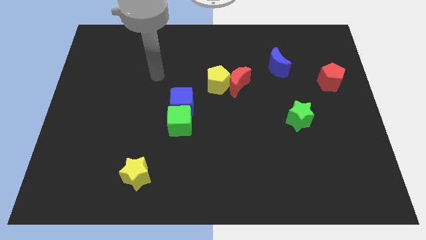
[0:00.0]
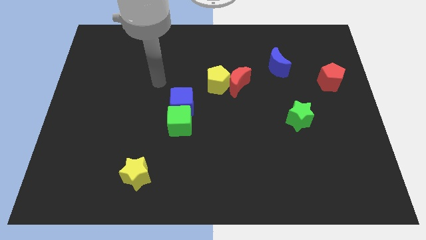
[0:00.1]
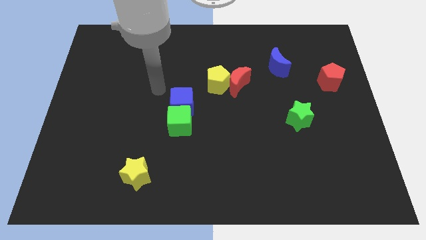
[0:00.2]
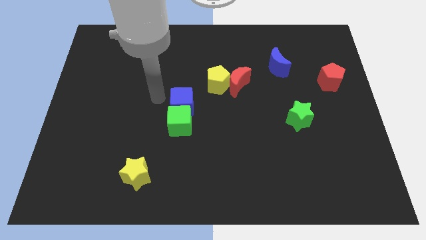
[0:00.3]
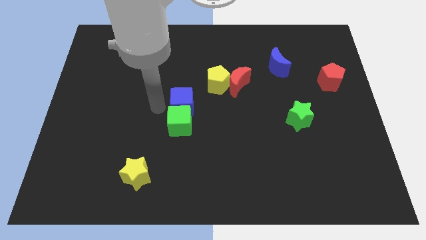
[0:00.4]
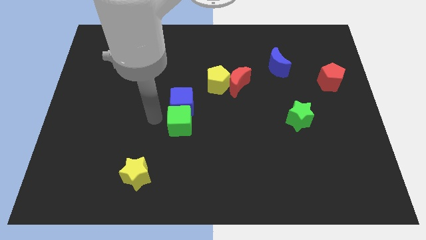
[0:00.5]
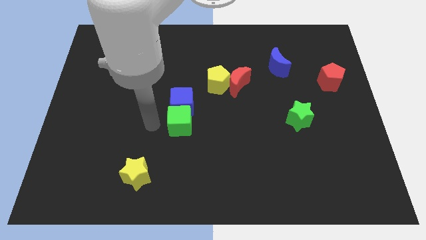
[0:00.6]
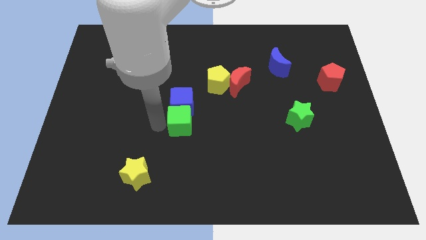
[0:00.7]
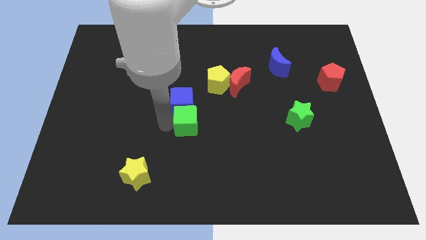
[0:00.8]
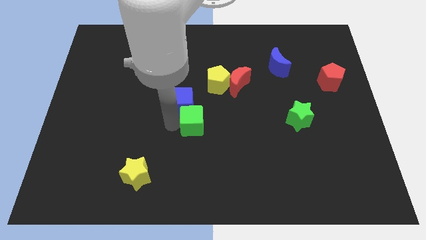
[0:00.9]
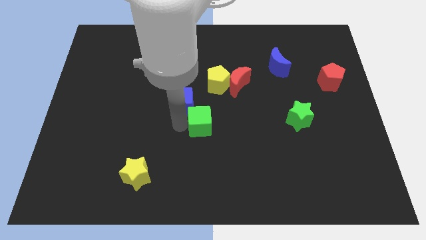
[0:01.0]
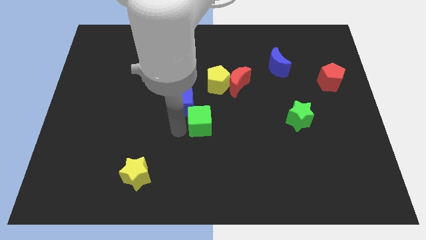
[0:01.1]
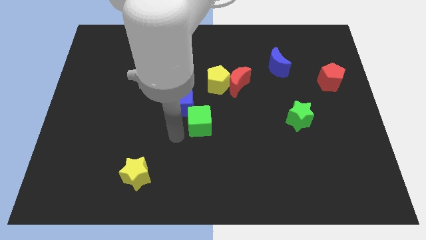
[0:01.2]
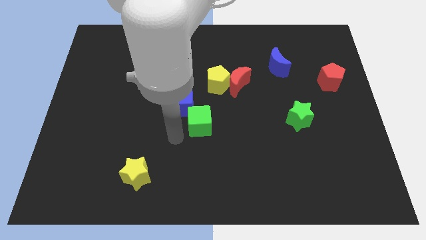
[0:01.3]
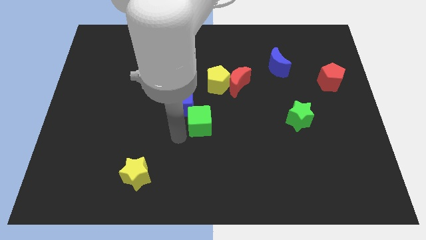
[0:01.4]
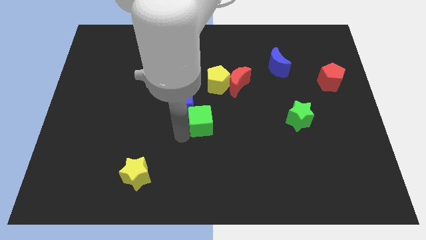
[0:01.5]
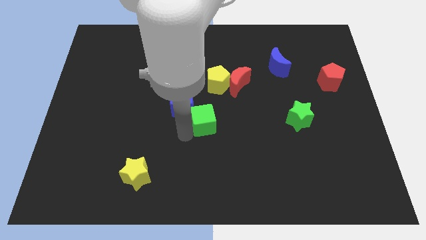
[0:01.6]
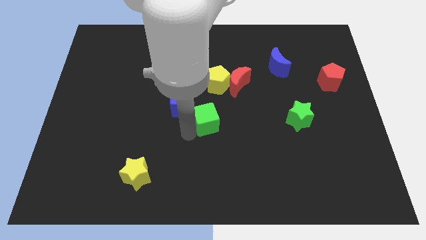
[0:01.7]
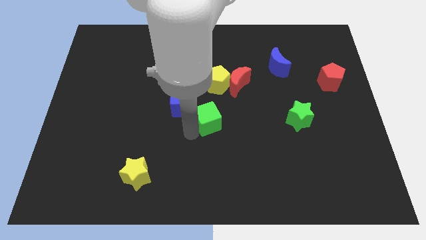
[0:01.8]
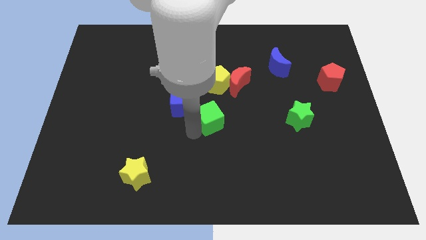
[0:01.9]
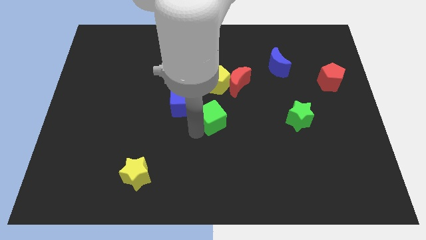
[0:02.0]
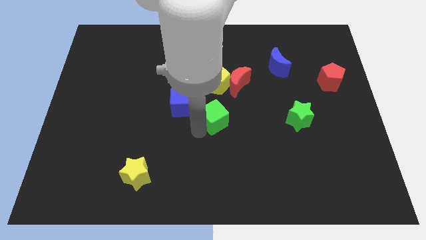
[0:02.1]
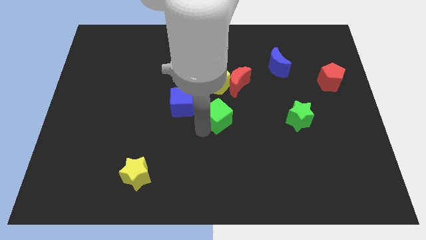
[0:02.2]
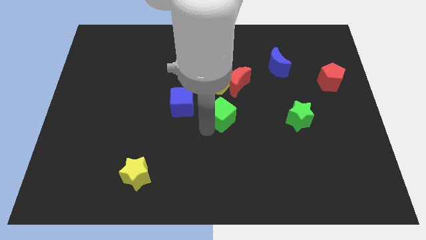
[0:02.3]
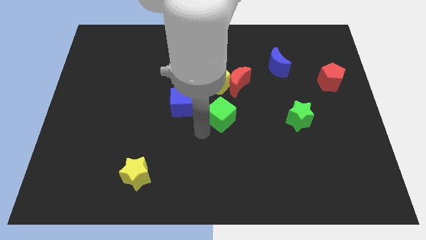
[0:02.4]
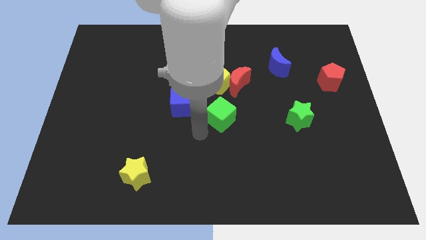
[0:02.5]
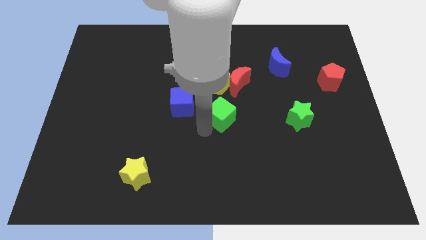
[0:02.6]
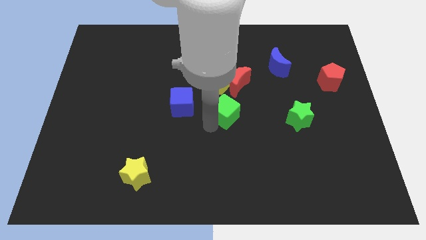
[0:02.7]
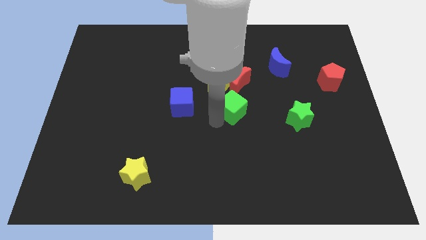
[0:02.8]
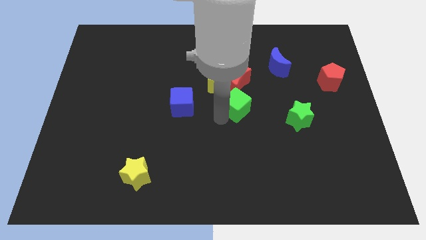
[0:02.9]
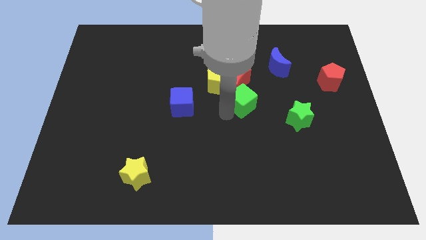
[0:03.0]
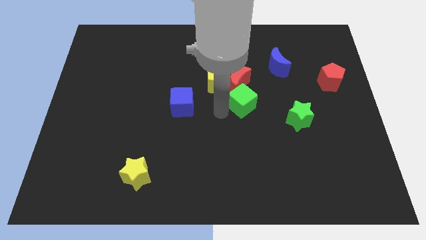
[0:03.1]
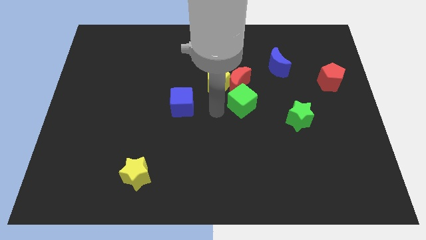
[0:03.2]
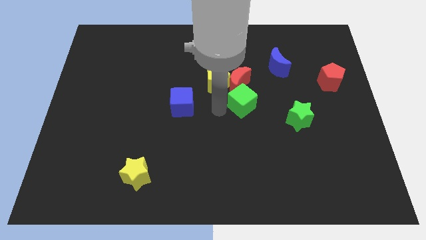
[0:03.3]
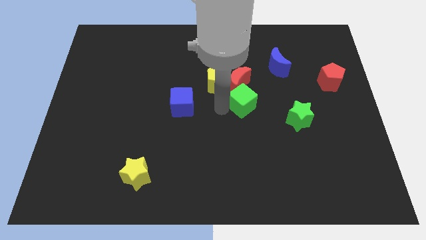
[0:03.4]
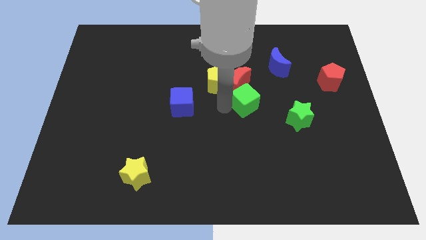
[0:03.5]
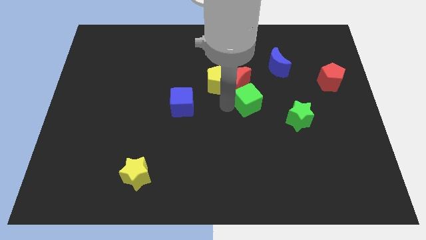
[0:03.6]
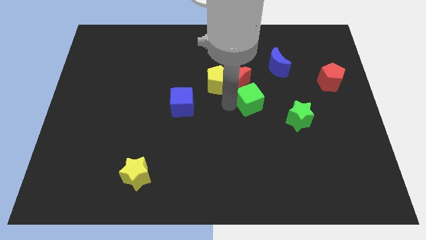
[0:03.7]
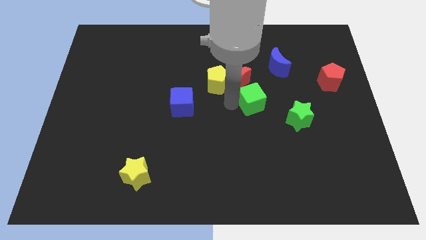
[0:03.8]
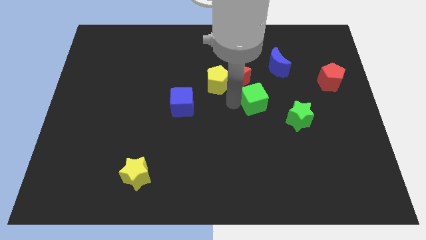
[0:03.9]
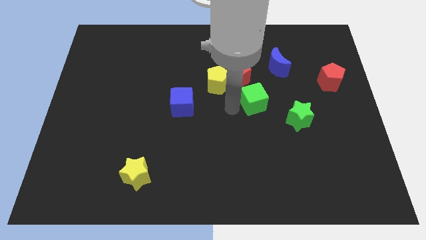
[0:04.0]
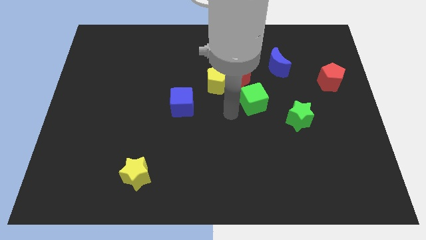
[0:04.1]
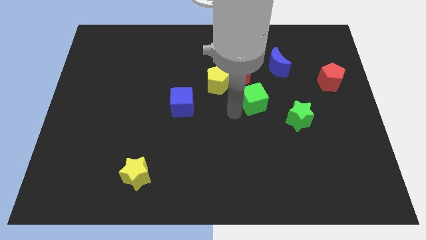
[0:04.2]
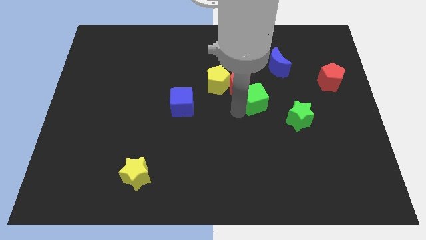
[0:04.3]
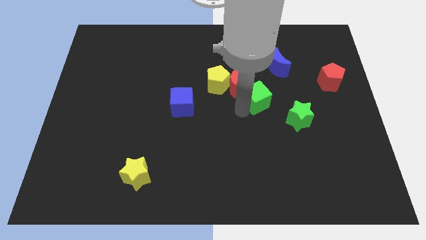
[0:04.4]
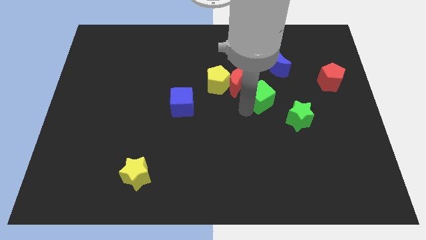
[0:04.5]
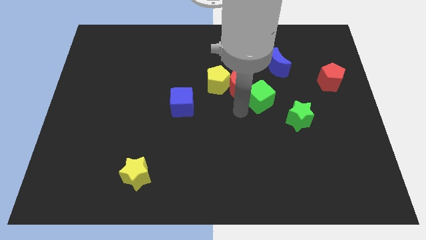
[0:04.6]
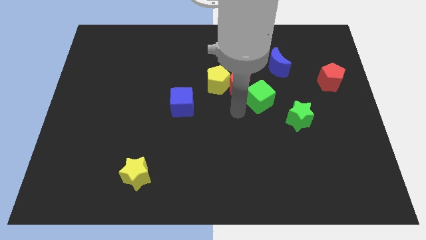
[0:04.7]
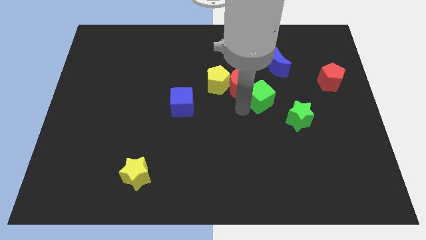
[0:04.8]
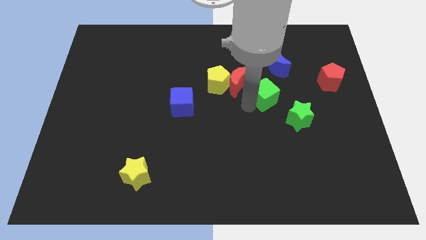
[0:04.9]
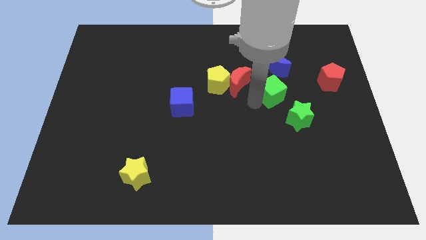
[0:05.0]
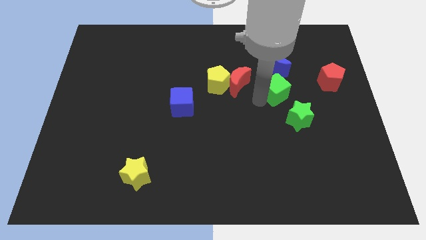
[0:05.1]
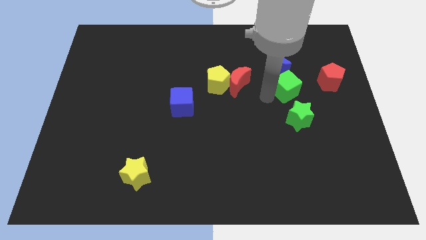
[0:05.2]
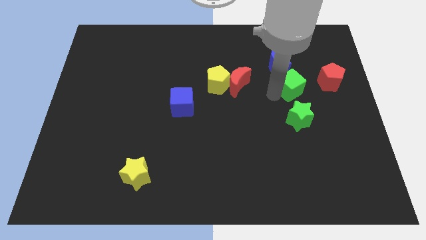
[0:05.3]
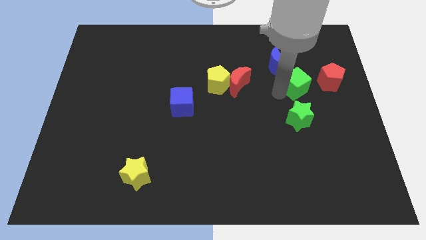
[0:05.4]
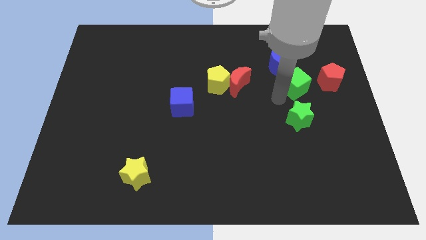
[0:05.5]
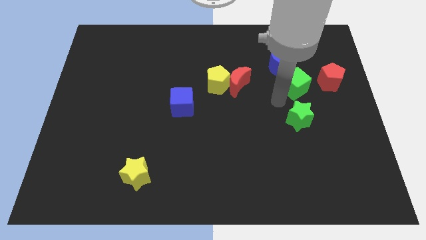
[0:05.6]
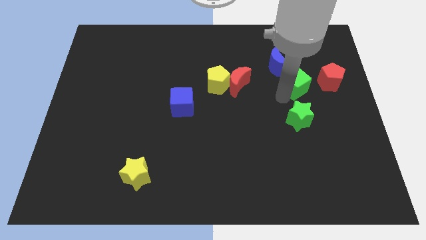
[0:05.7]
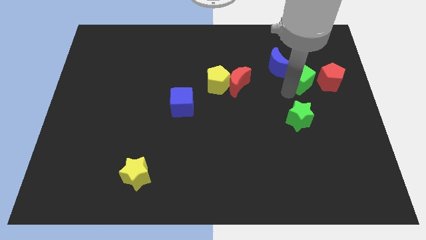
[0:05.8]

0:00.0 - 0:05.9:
put the green cube just right of the blue moon

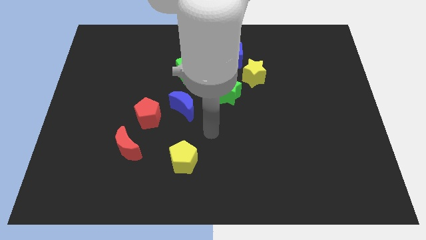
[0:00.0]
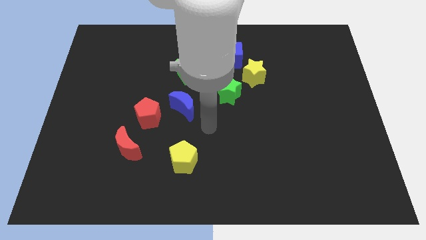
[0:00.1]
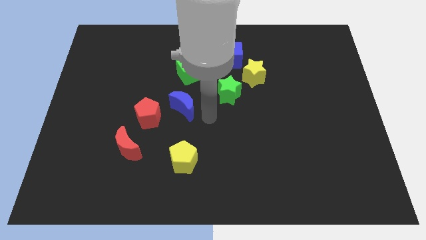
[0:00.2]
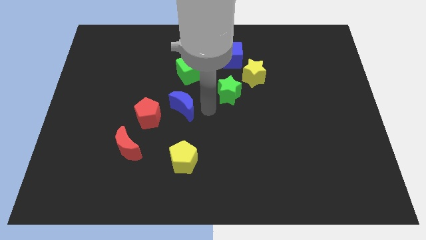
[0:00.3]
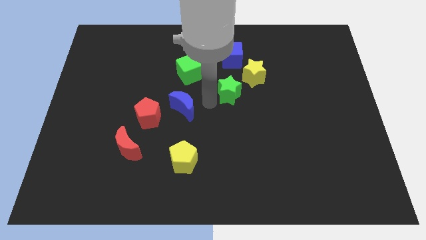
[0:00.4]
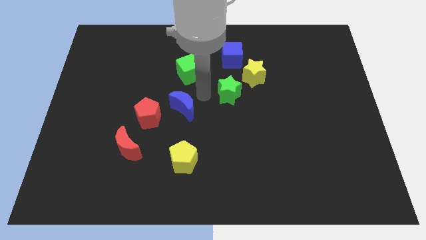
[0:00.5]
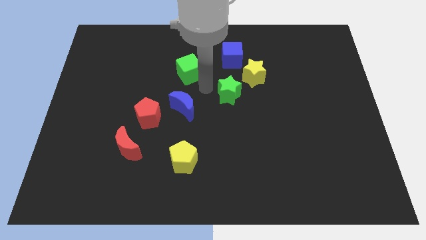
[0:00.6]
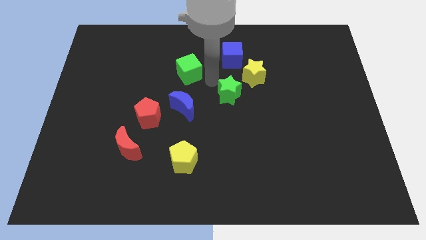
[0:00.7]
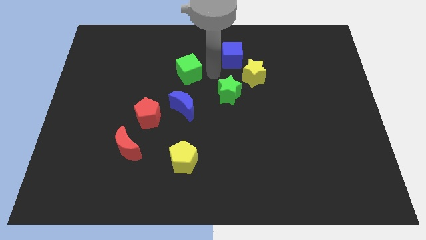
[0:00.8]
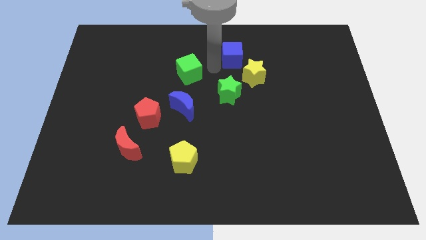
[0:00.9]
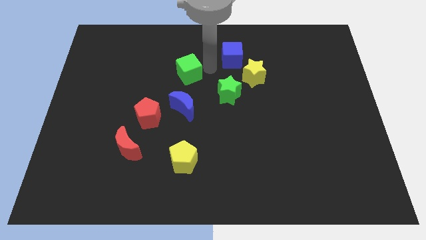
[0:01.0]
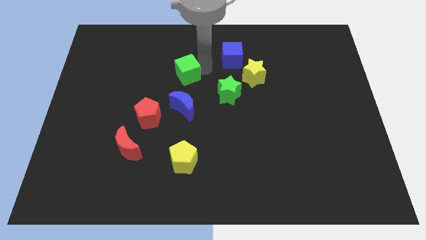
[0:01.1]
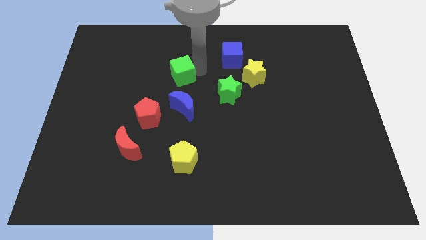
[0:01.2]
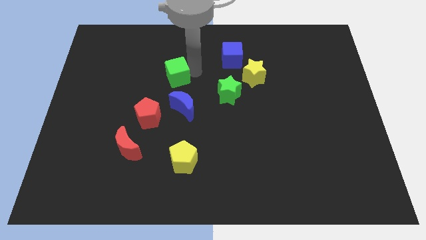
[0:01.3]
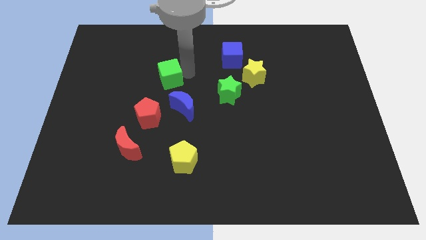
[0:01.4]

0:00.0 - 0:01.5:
slide the green cube to the top side of the red pentagon
